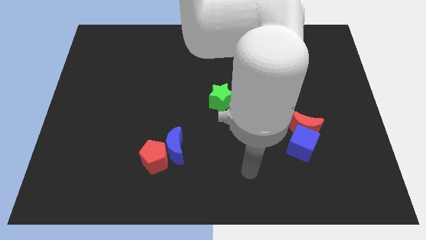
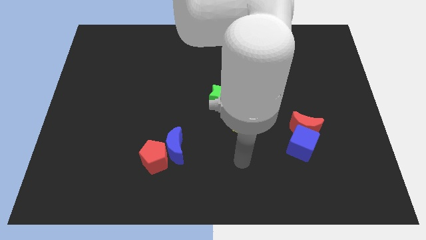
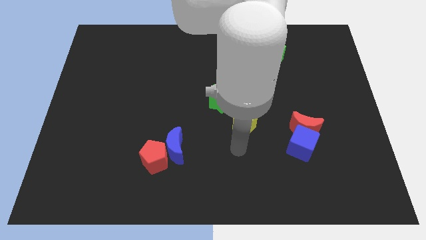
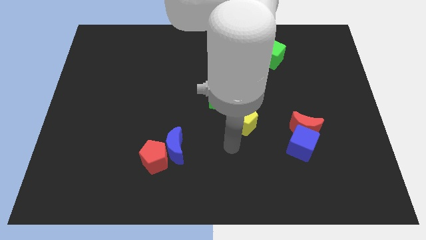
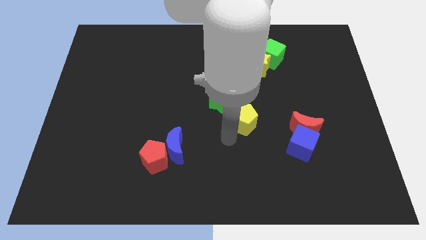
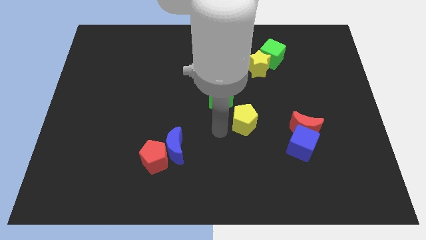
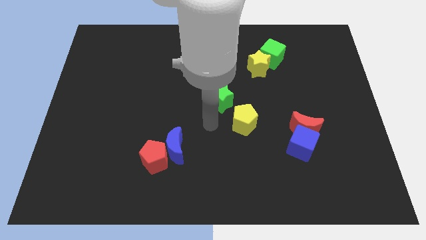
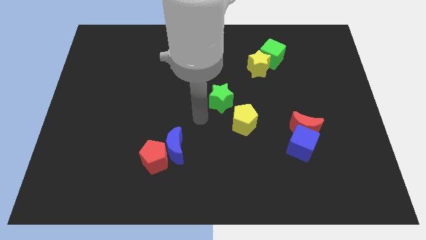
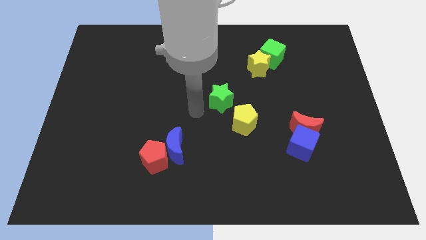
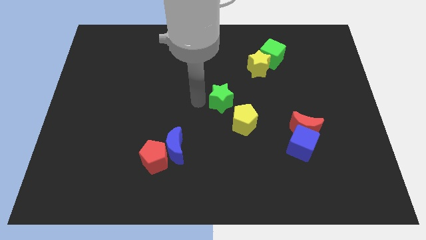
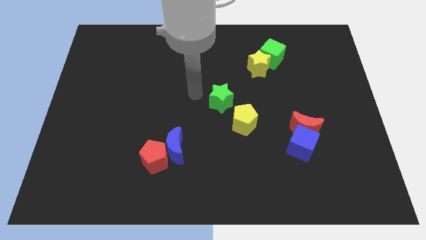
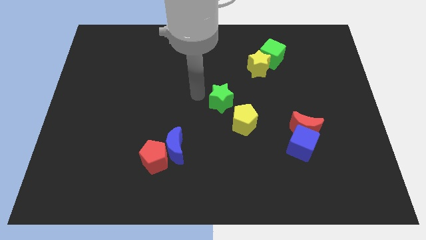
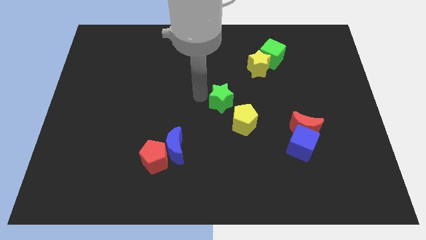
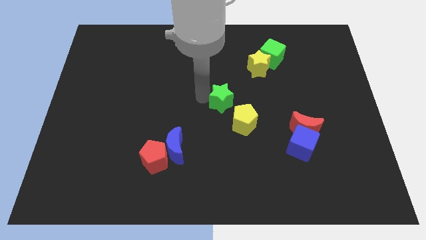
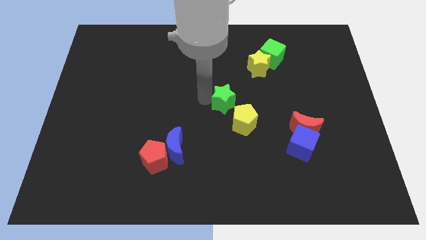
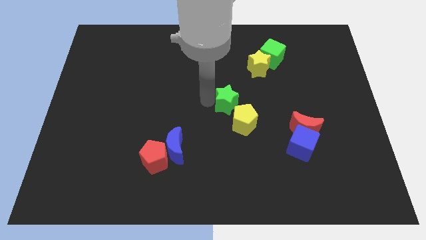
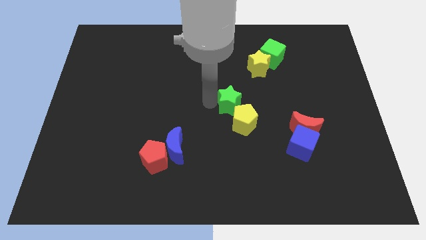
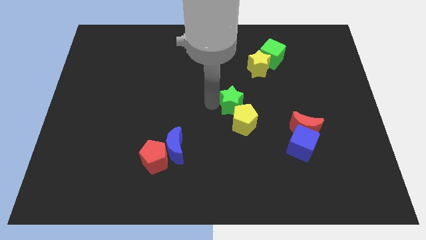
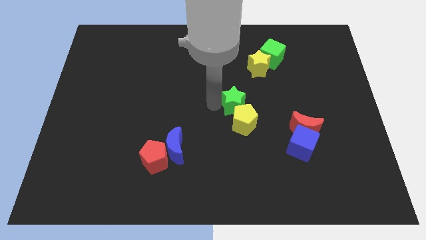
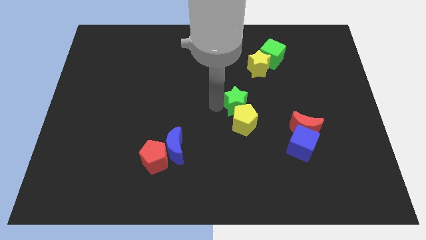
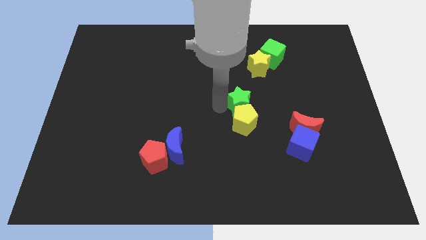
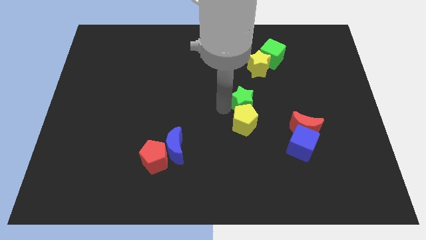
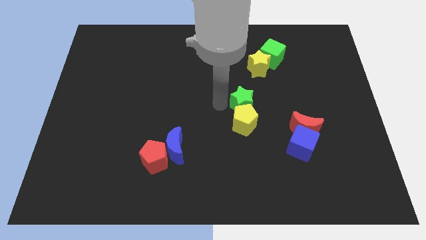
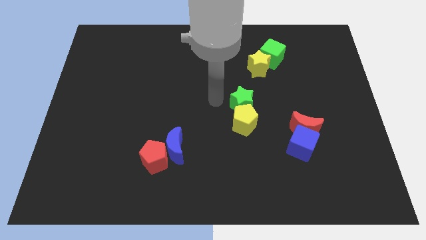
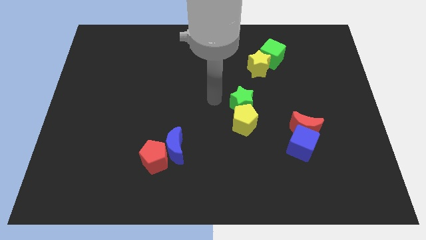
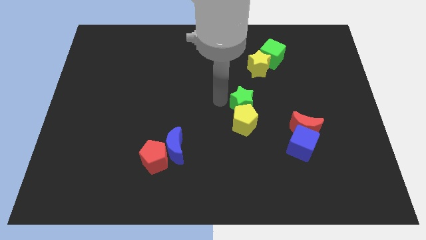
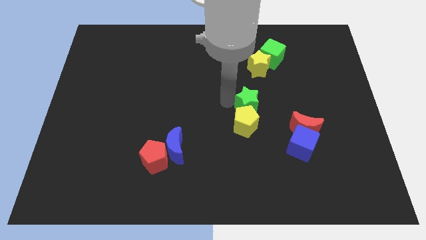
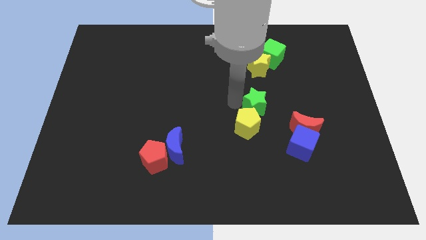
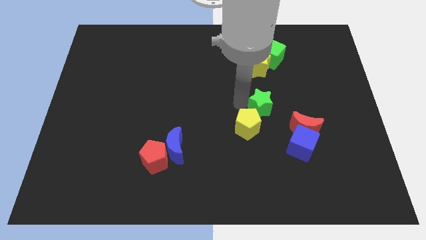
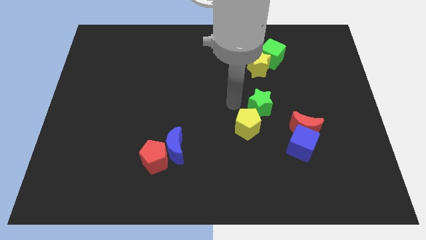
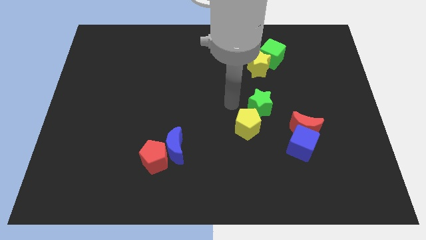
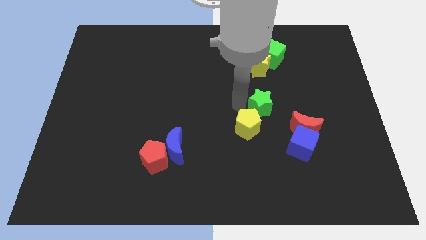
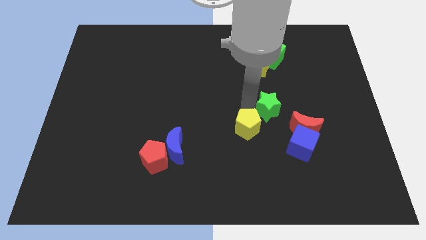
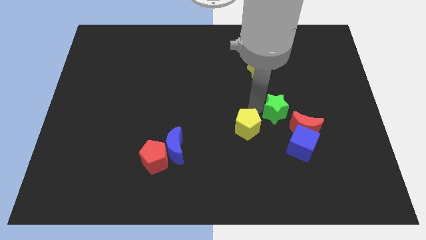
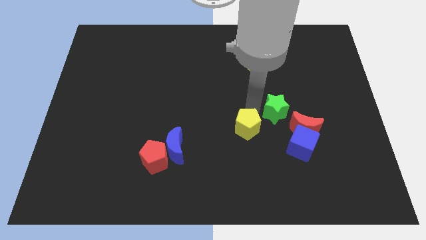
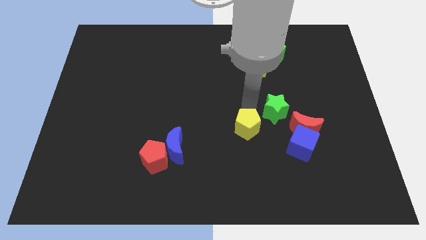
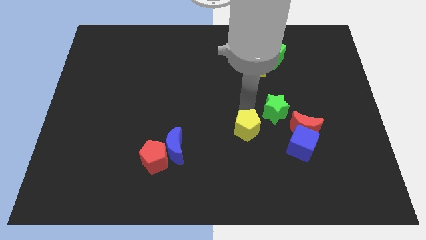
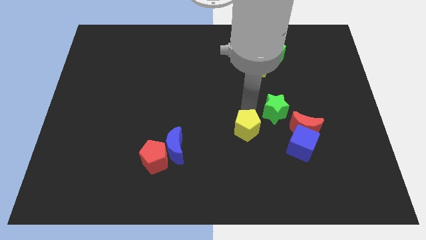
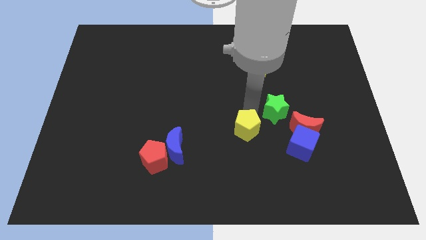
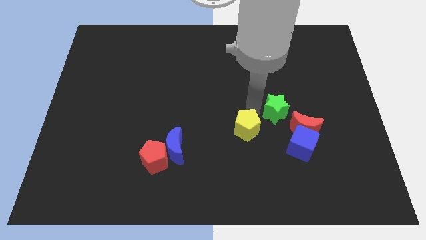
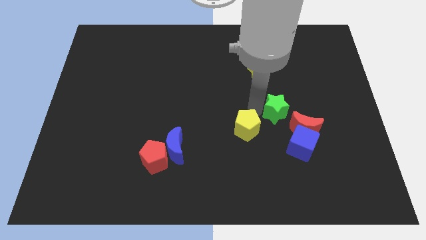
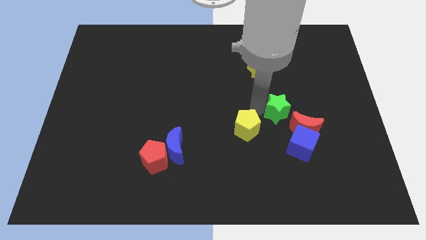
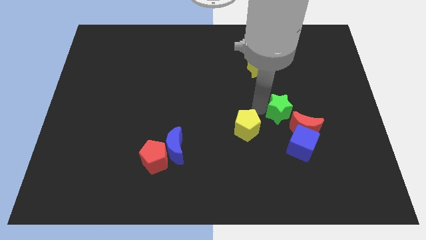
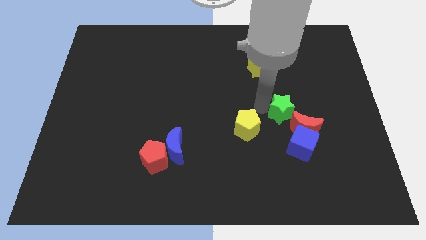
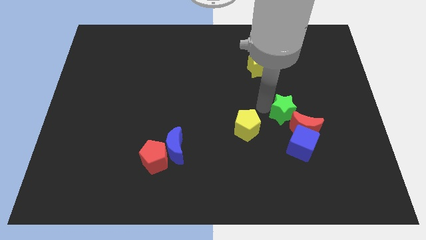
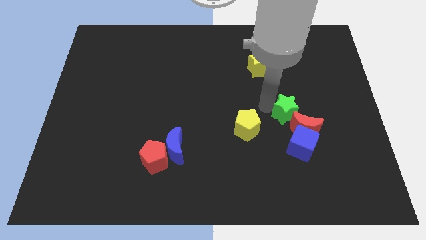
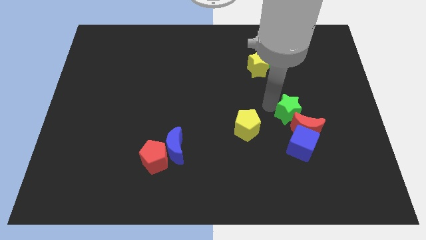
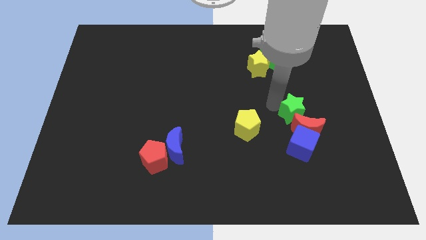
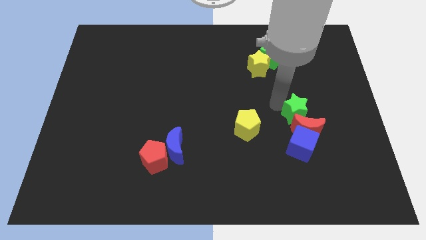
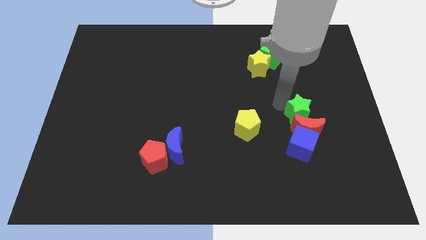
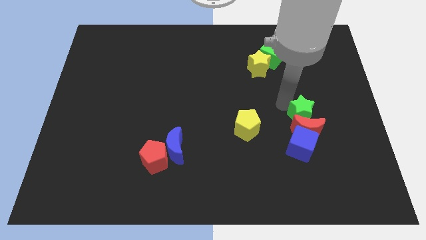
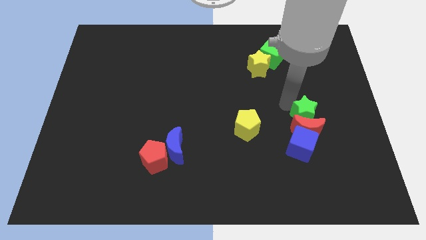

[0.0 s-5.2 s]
push the green star to the top right of the blue cube

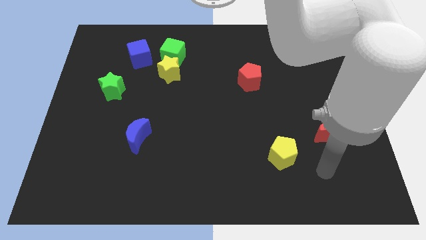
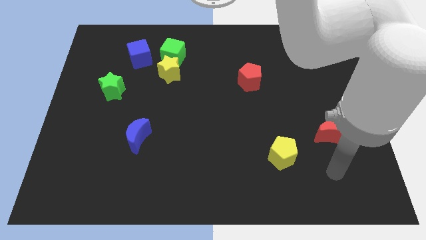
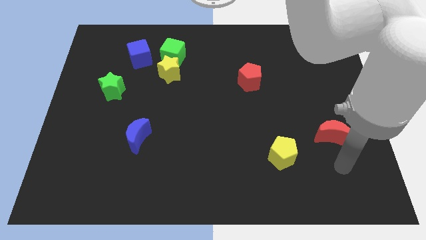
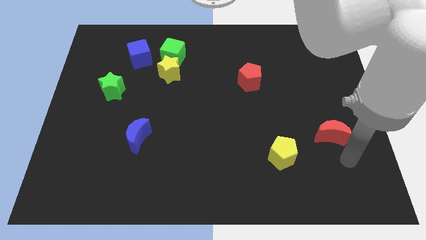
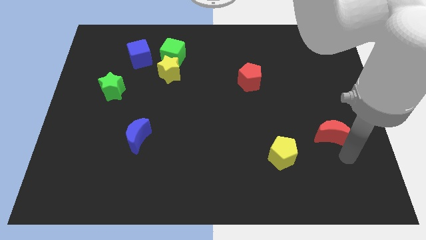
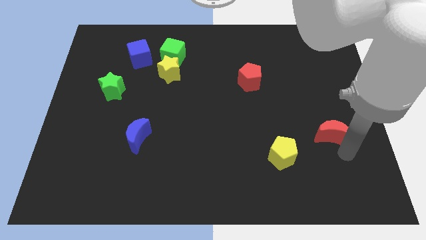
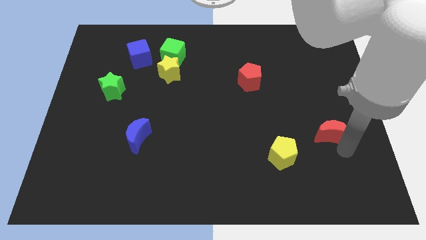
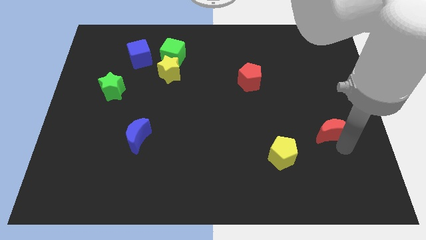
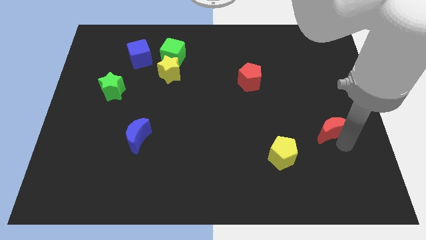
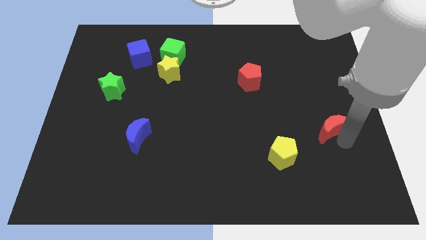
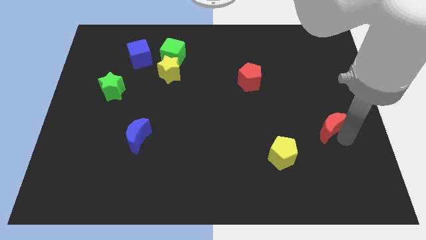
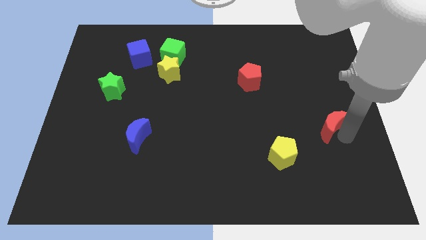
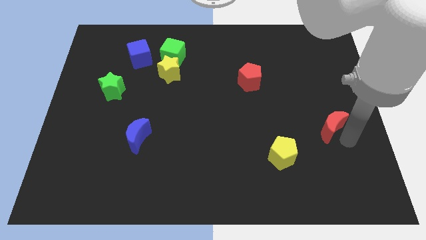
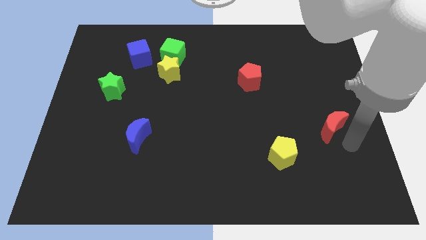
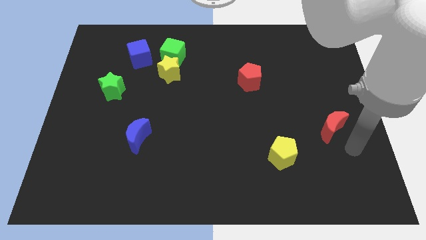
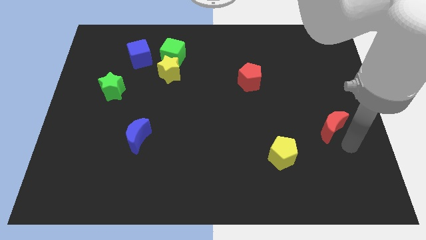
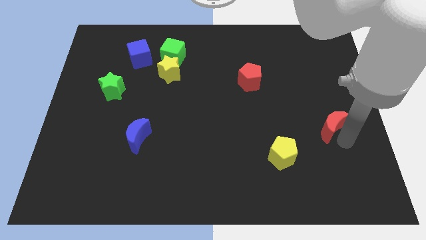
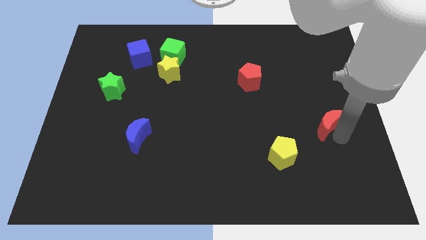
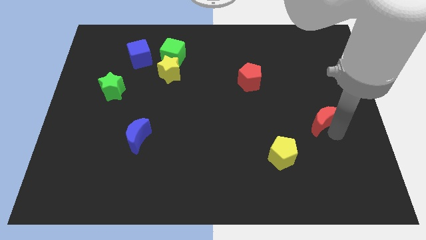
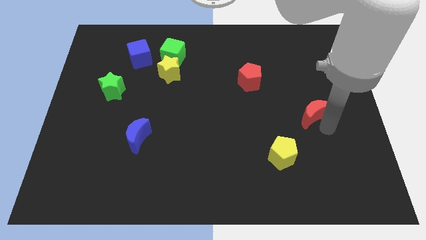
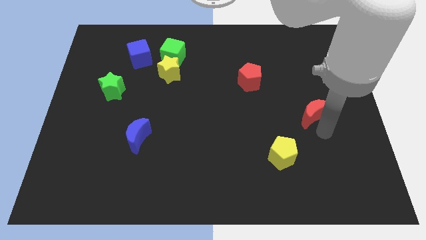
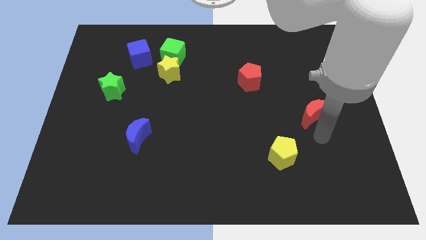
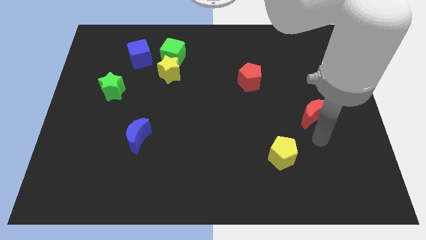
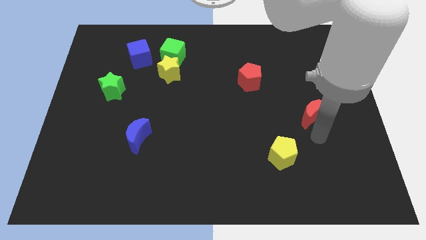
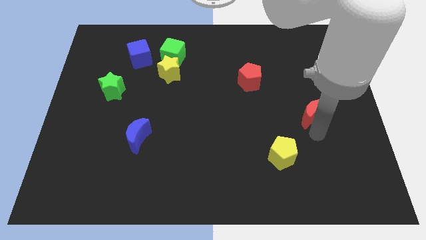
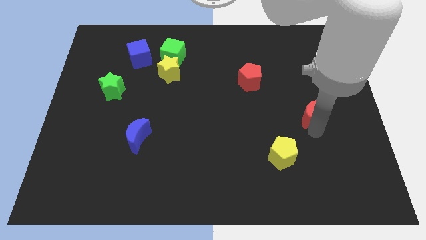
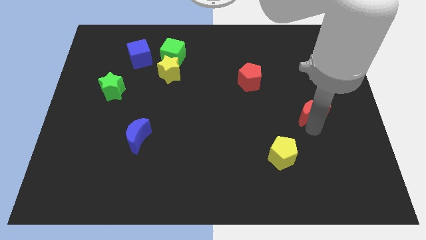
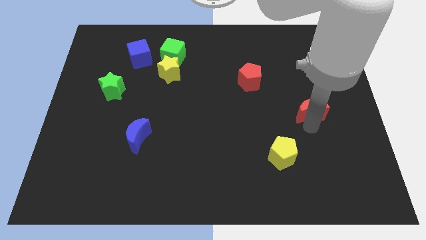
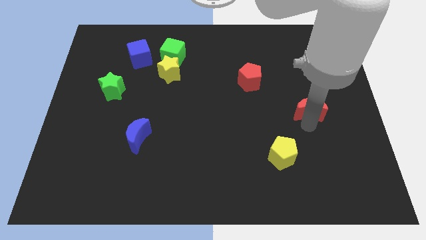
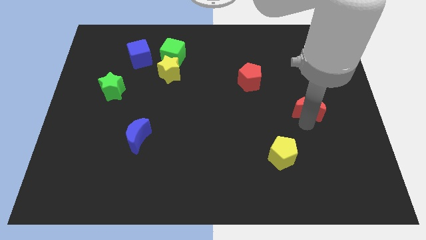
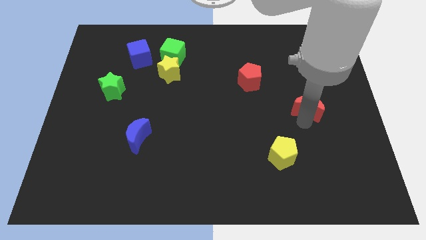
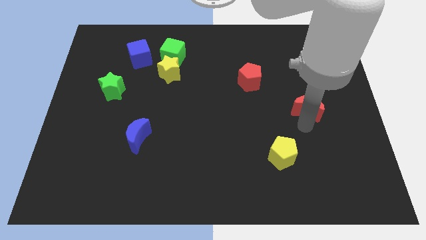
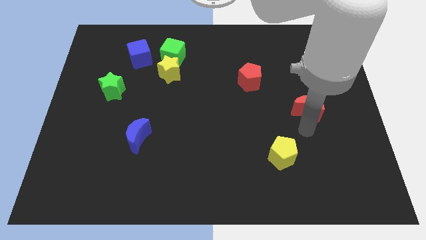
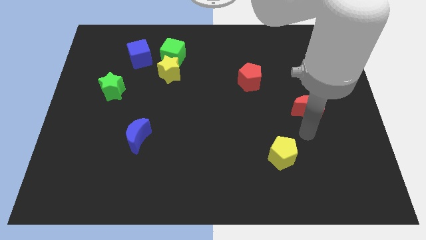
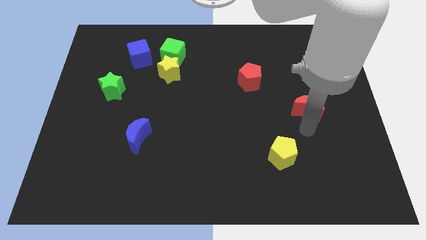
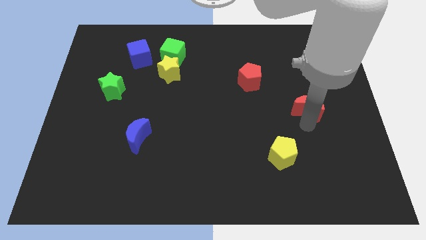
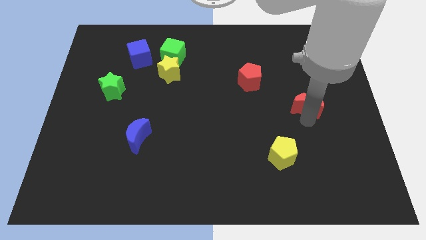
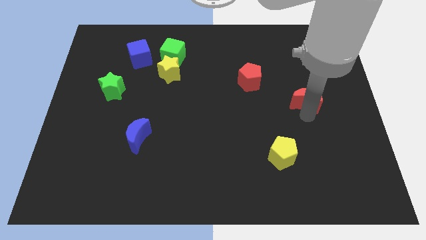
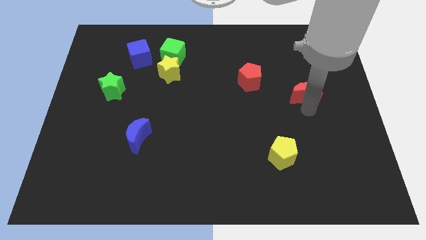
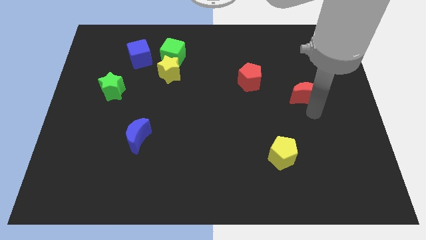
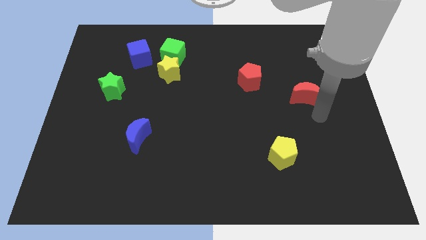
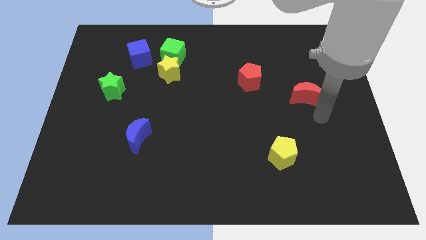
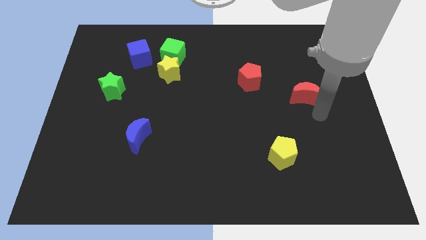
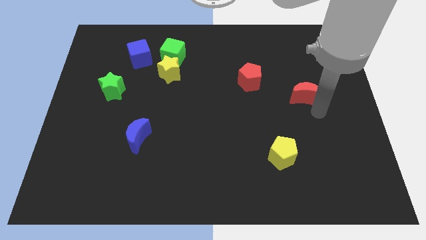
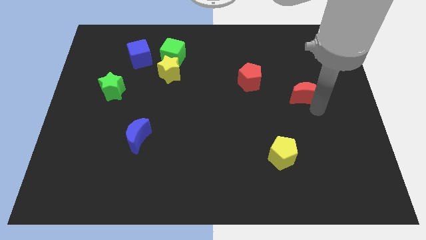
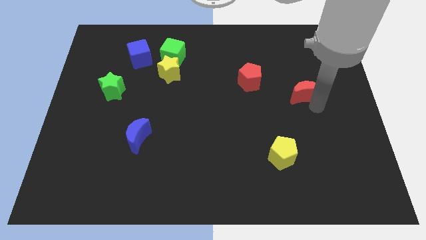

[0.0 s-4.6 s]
push the red moon just right of the red pentagon
